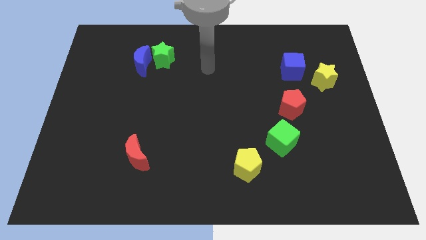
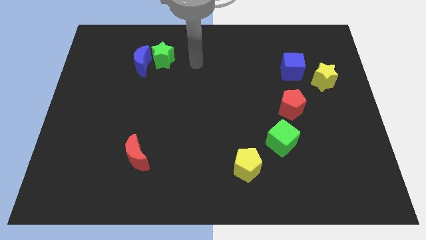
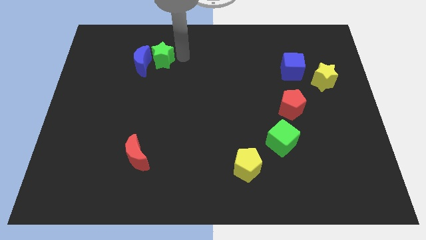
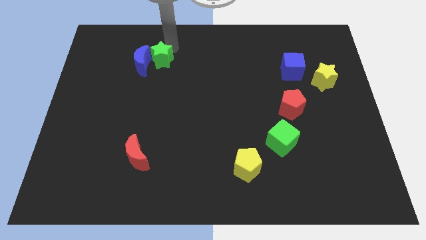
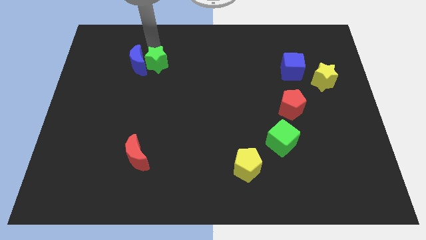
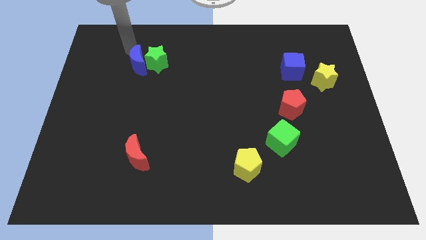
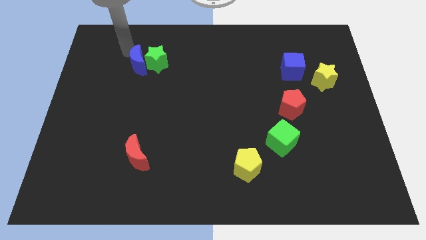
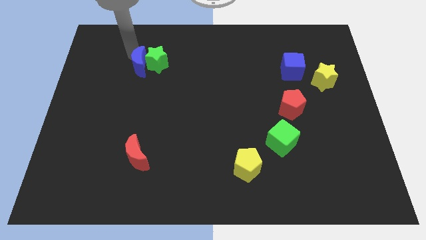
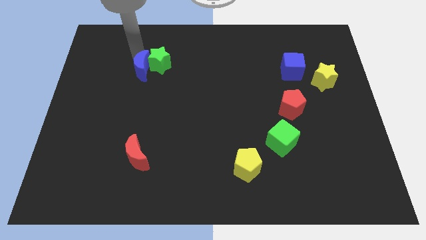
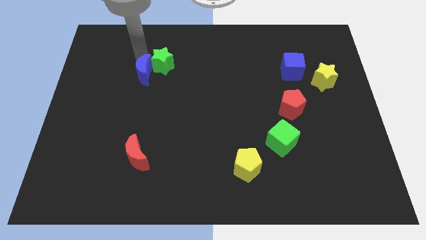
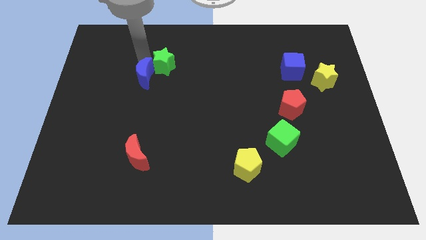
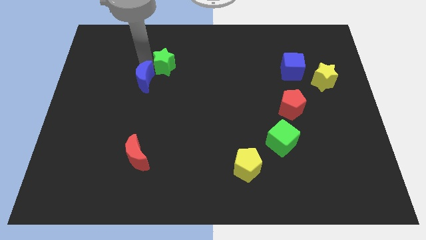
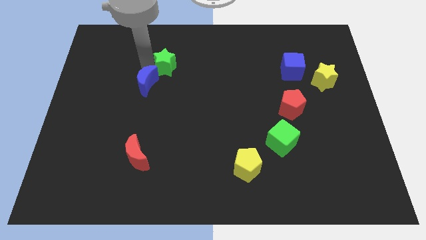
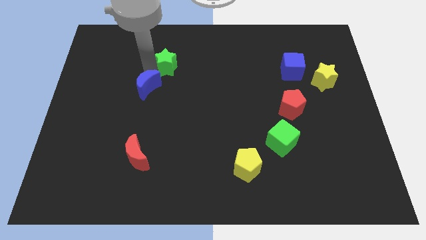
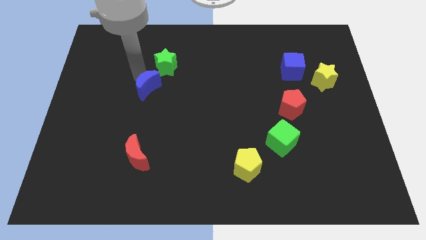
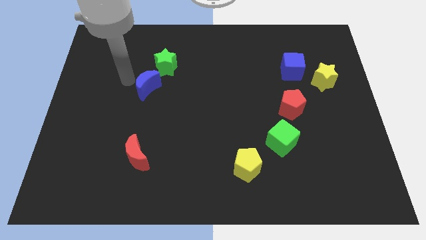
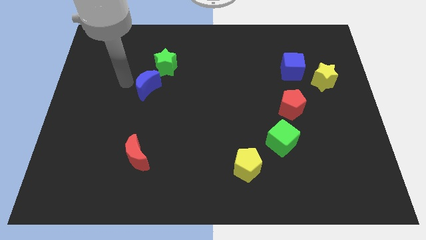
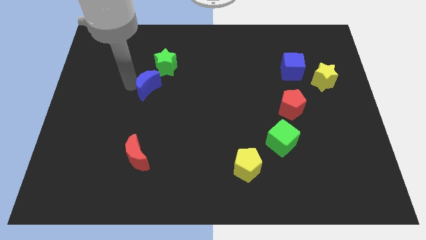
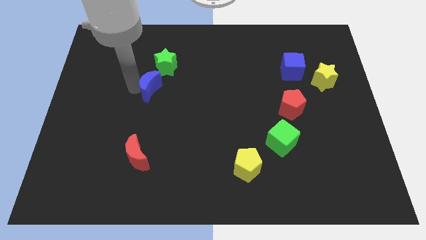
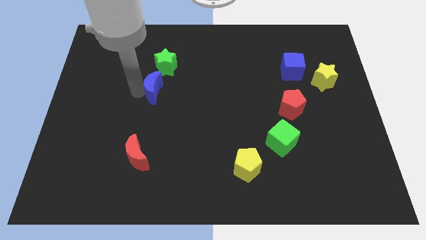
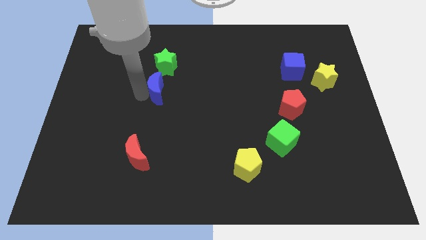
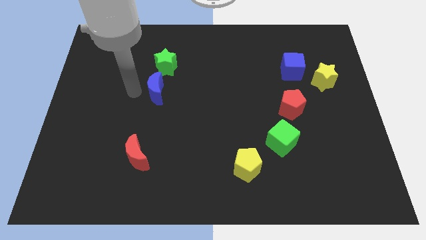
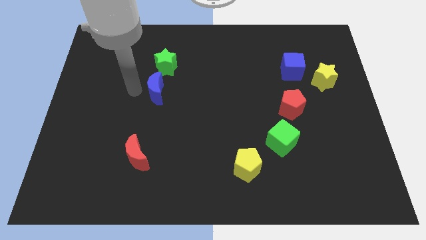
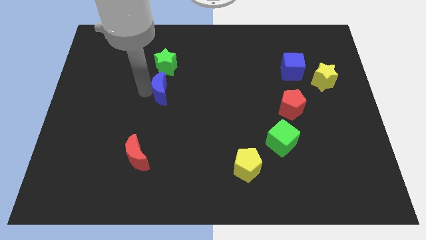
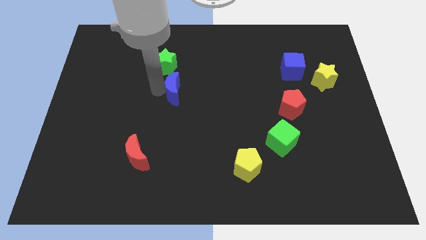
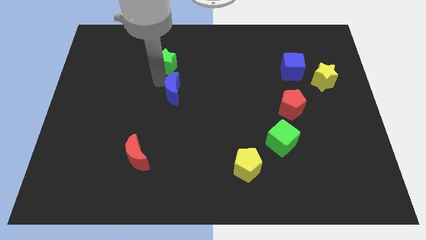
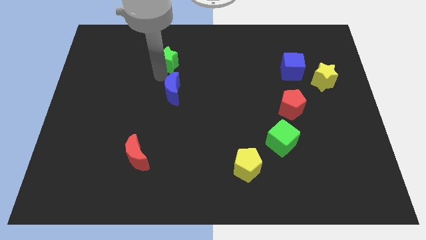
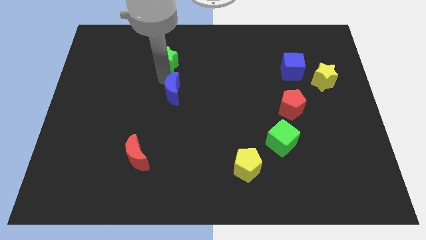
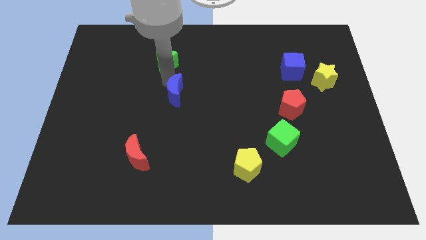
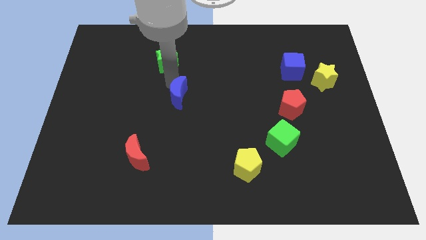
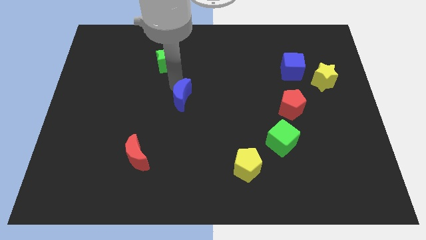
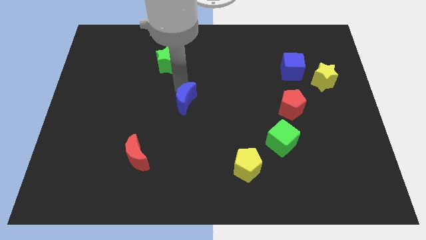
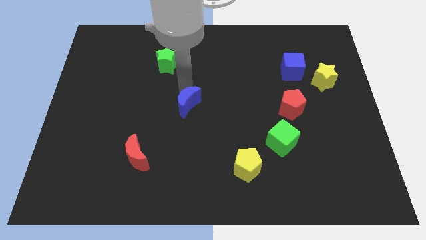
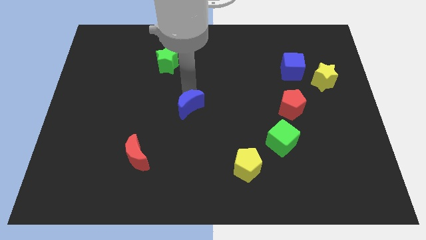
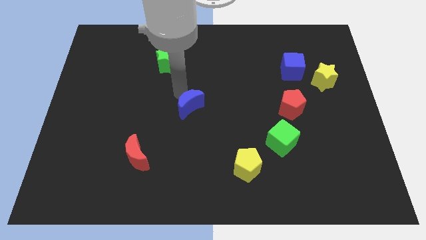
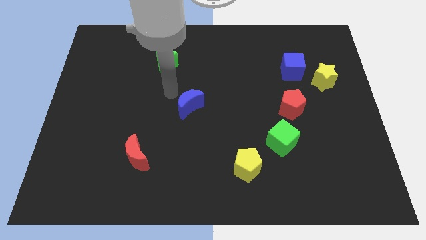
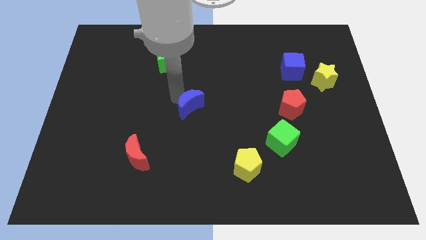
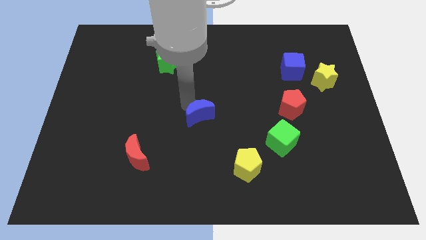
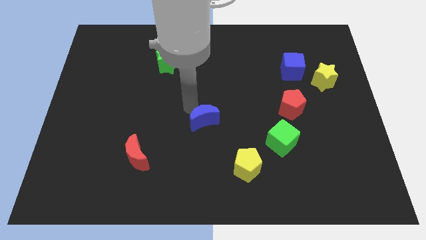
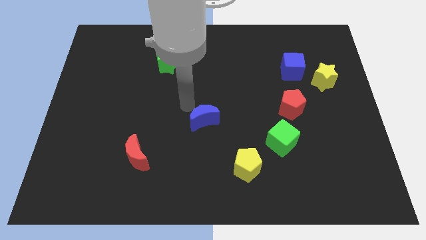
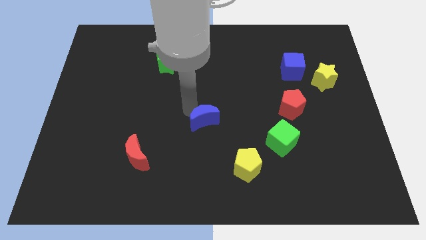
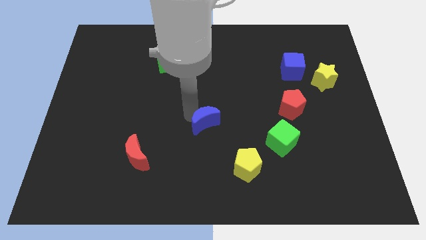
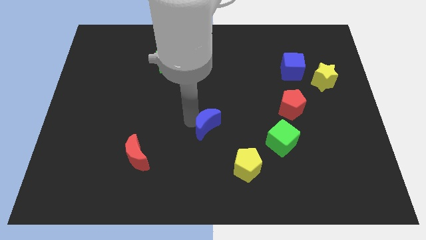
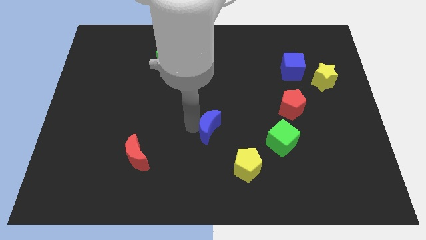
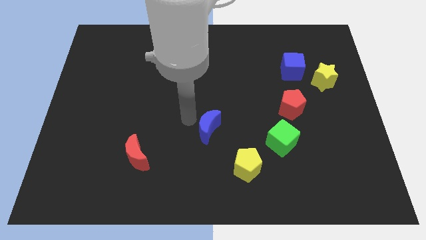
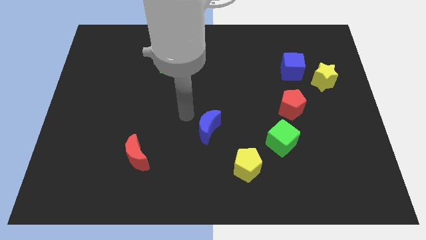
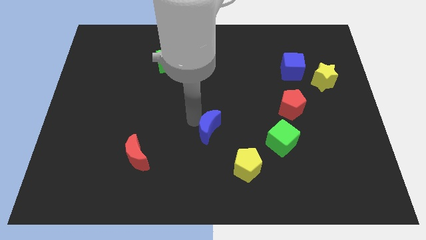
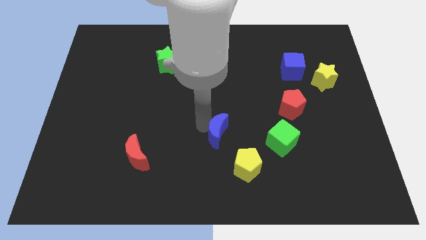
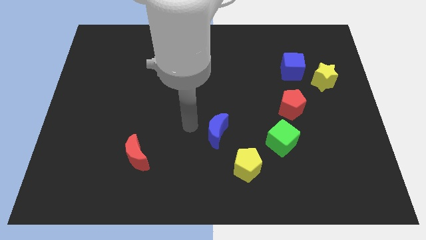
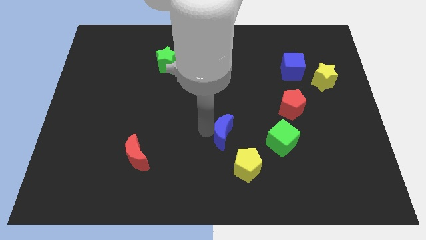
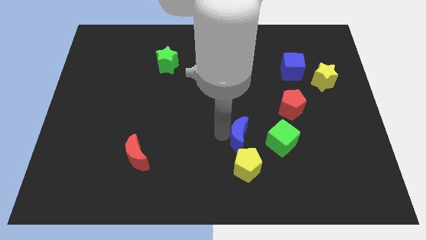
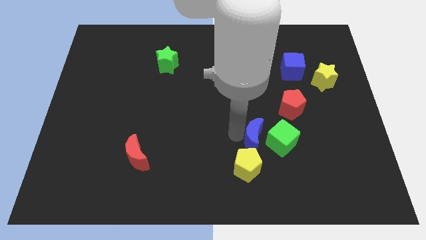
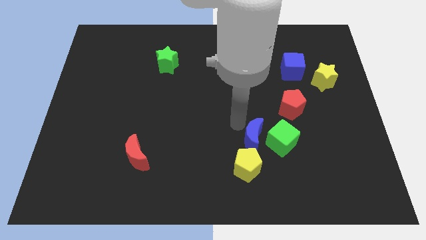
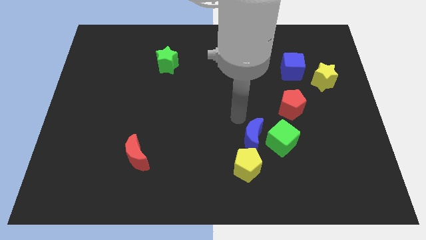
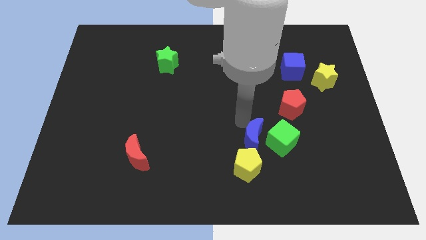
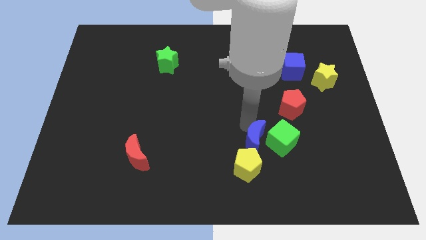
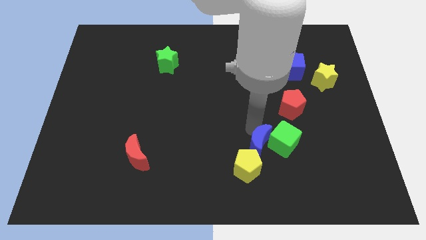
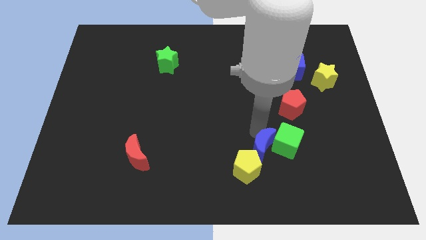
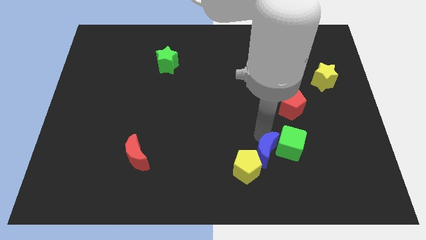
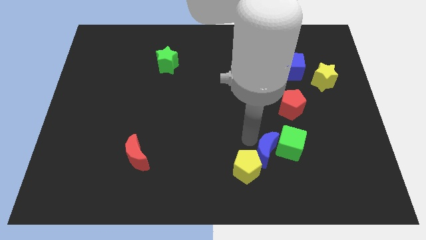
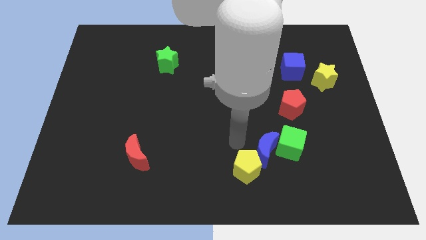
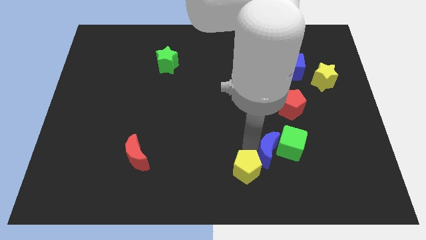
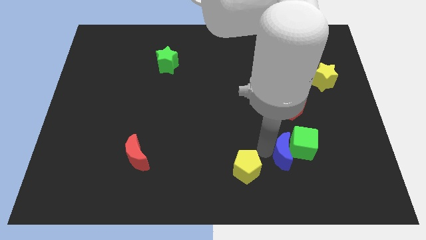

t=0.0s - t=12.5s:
put the blue moon to the bottom of the red pentagon

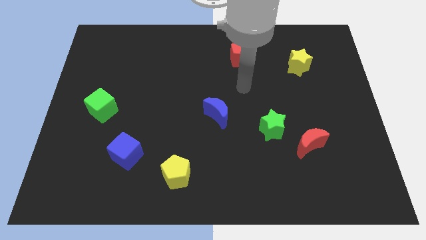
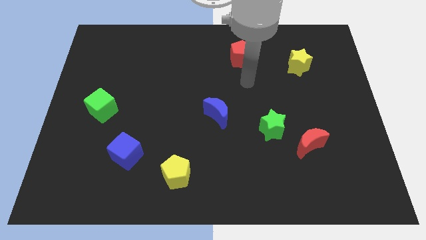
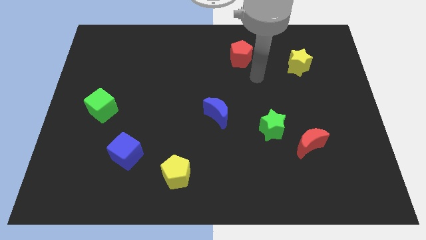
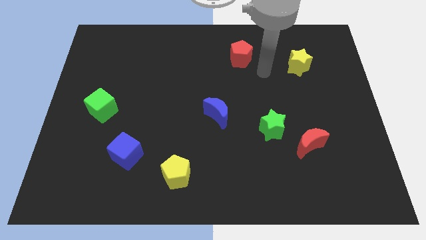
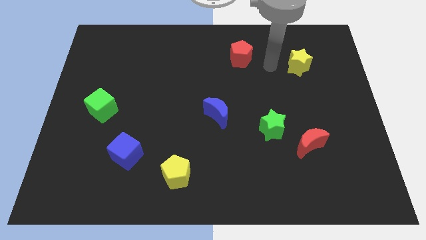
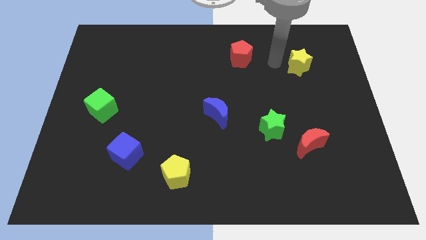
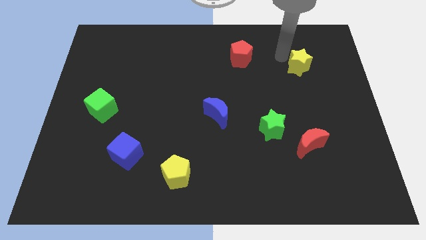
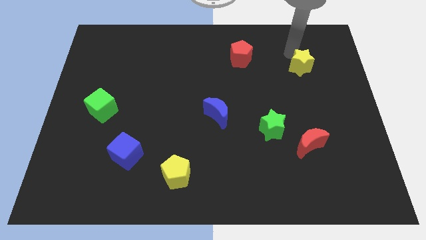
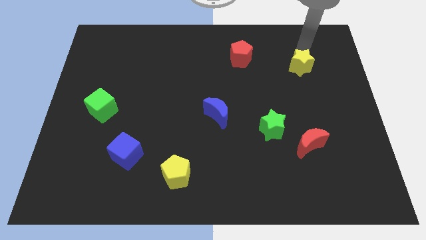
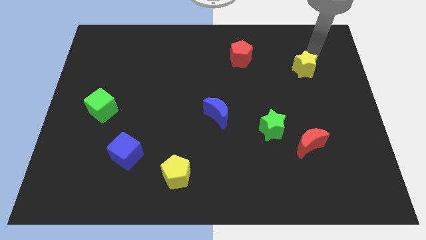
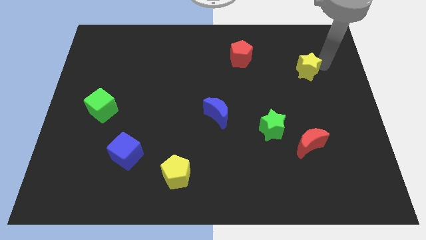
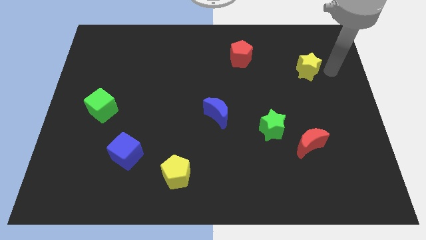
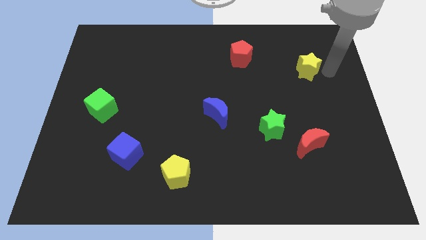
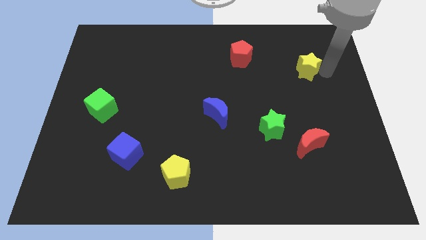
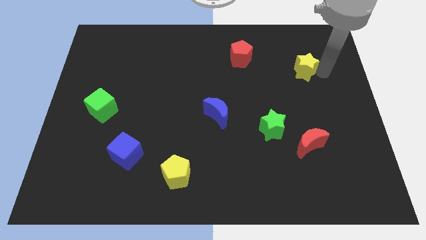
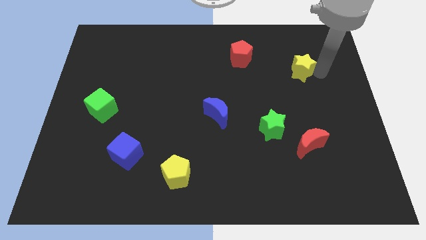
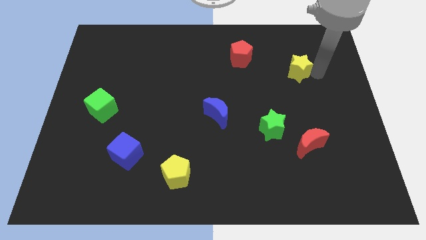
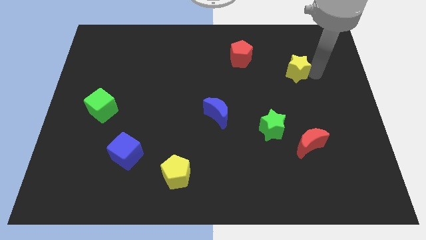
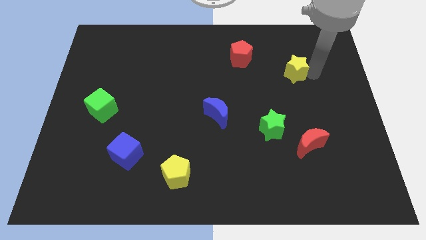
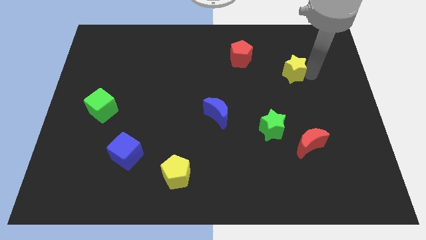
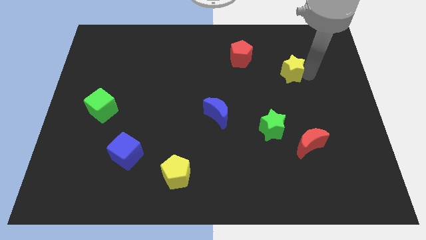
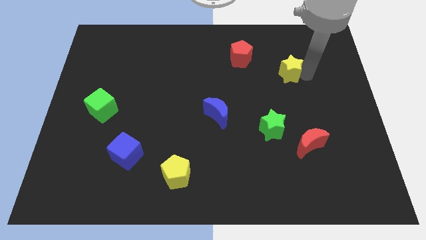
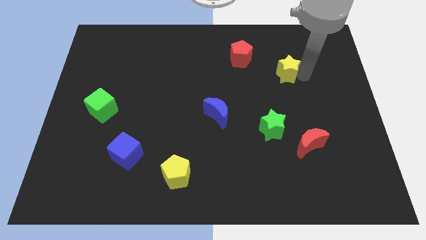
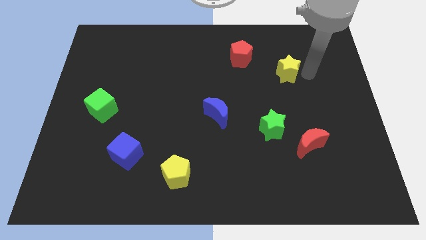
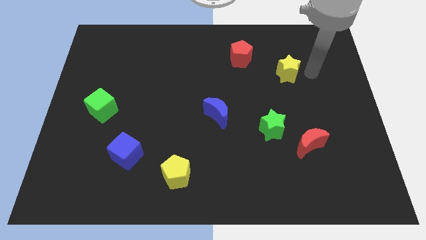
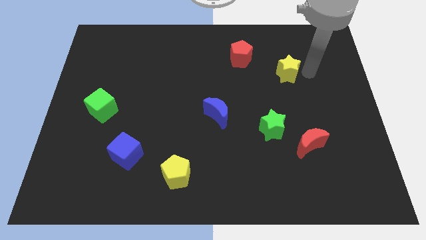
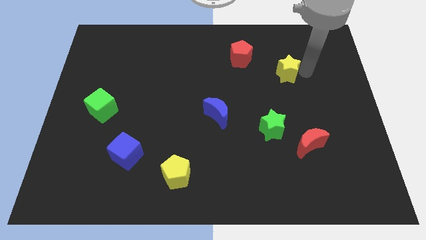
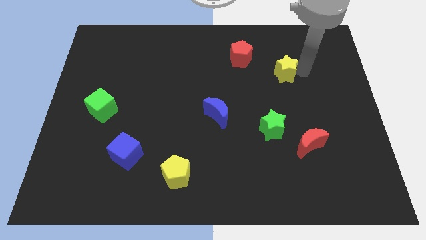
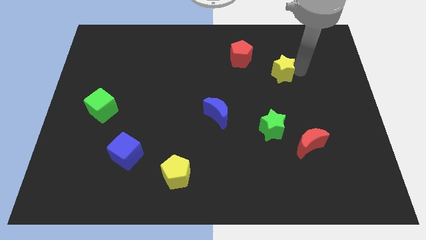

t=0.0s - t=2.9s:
put the yellow star diagonally down and to the right of the red pentagon
